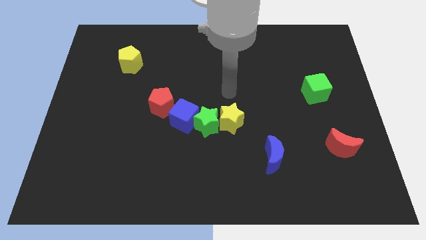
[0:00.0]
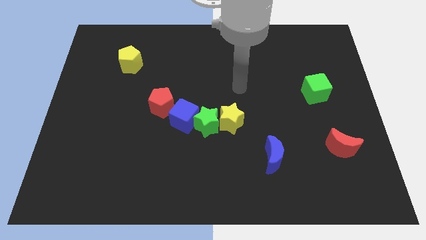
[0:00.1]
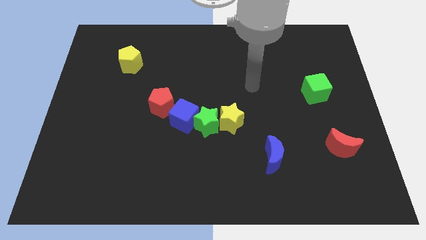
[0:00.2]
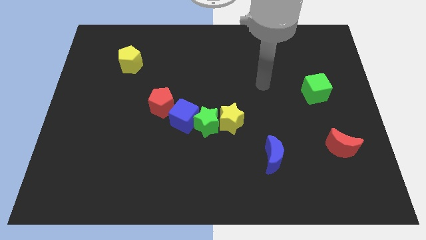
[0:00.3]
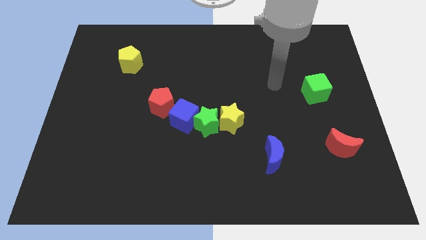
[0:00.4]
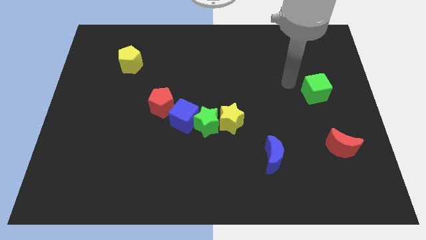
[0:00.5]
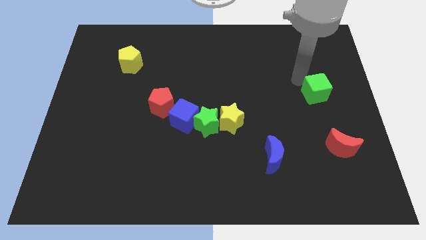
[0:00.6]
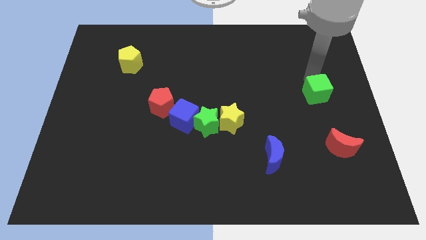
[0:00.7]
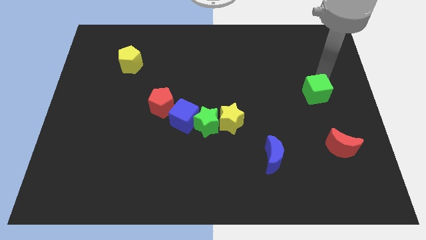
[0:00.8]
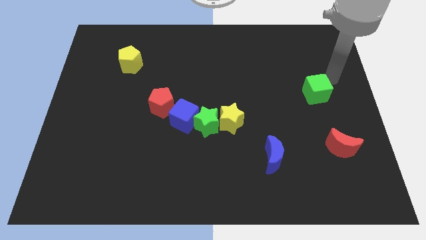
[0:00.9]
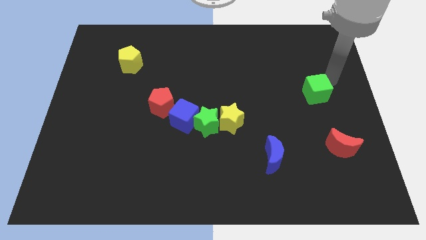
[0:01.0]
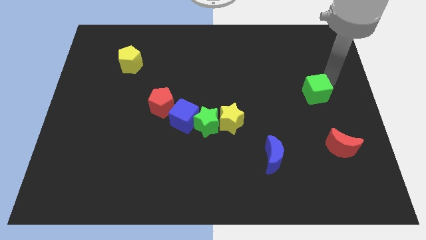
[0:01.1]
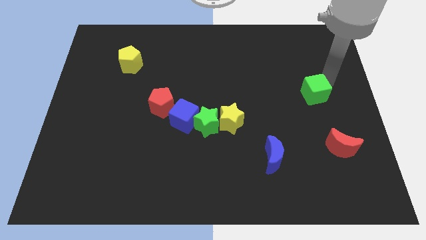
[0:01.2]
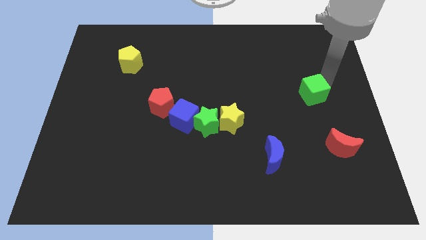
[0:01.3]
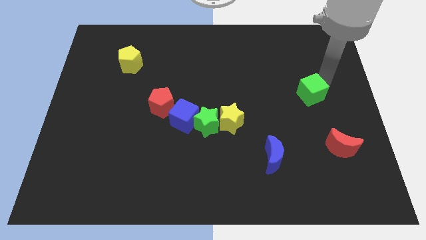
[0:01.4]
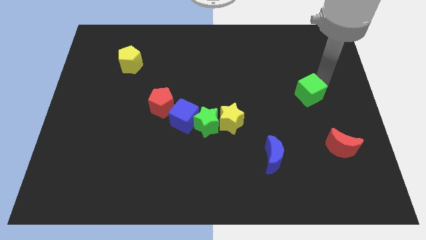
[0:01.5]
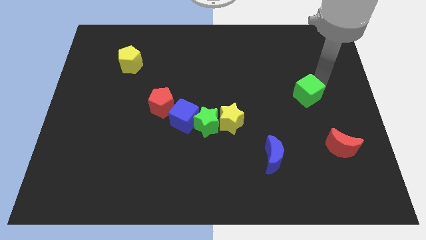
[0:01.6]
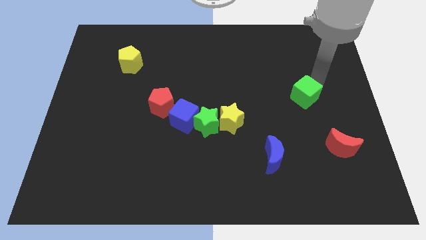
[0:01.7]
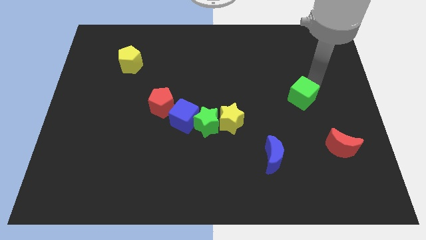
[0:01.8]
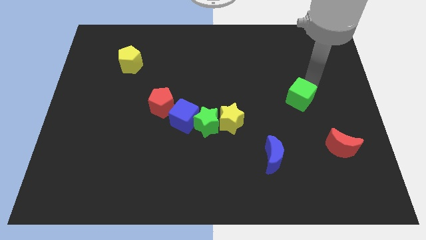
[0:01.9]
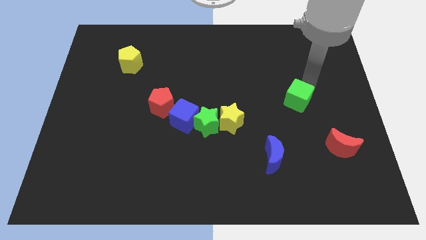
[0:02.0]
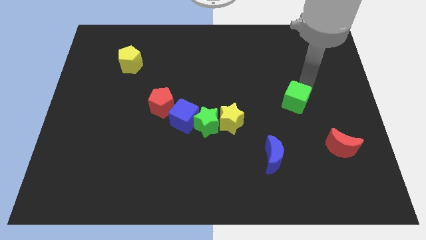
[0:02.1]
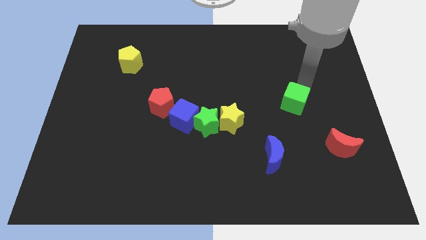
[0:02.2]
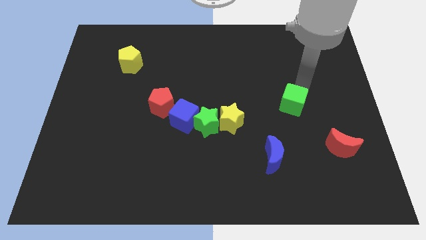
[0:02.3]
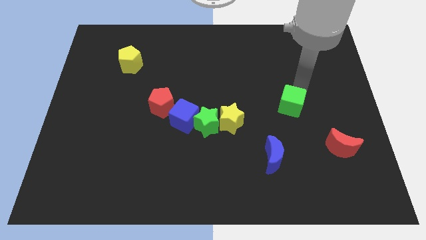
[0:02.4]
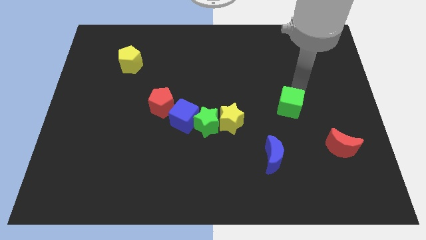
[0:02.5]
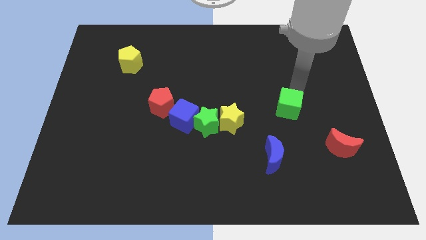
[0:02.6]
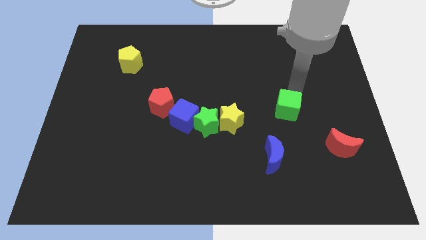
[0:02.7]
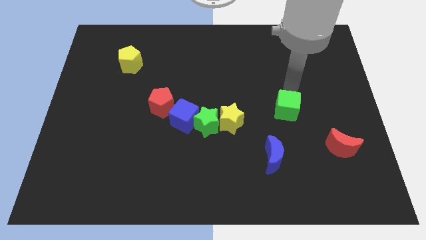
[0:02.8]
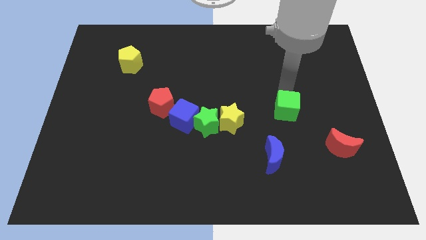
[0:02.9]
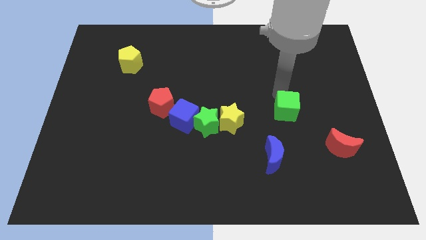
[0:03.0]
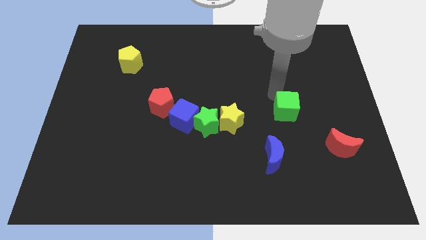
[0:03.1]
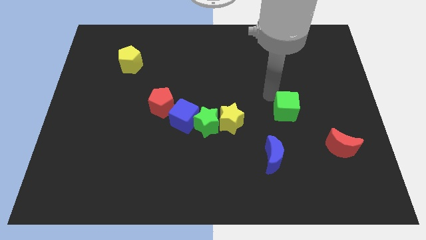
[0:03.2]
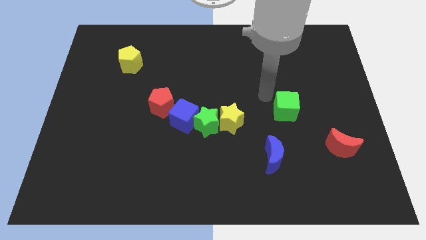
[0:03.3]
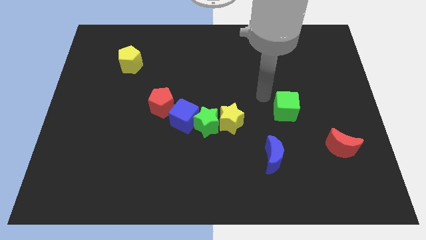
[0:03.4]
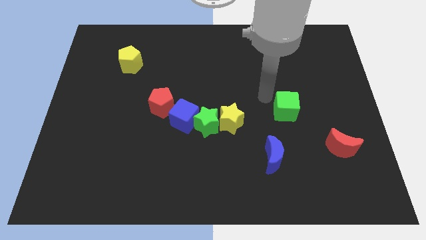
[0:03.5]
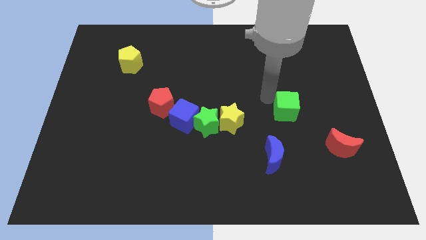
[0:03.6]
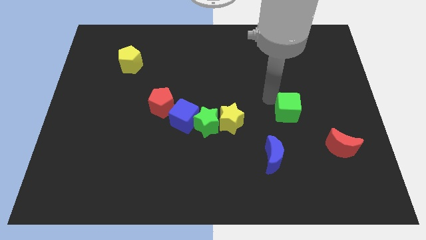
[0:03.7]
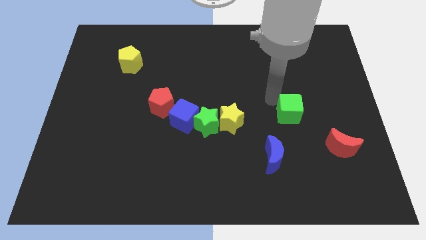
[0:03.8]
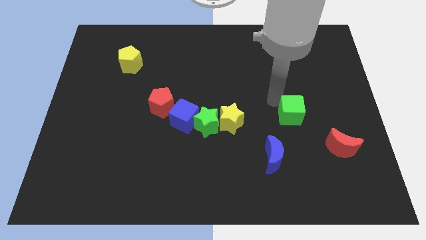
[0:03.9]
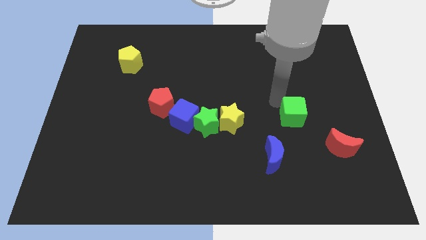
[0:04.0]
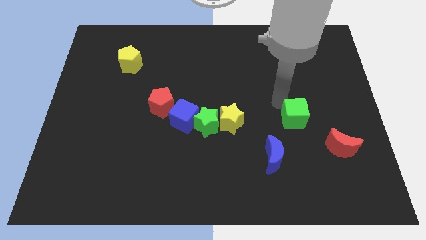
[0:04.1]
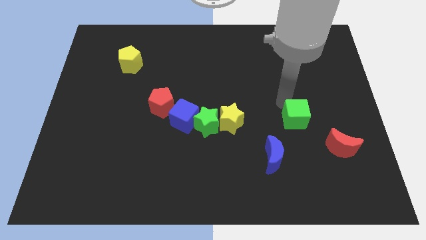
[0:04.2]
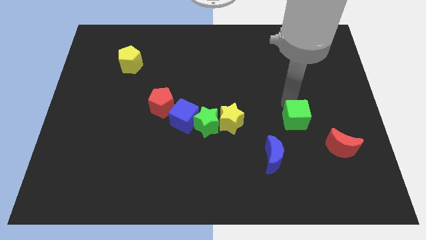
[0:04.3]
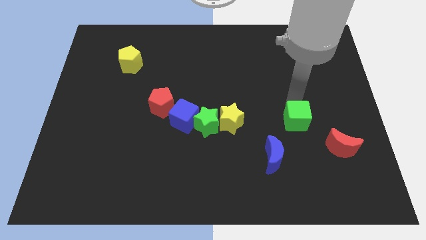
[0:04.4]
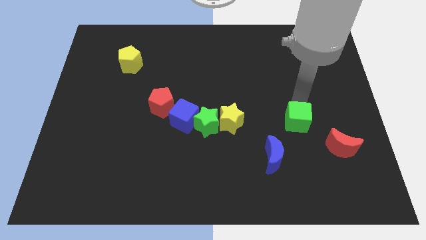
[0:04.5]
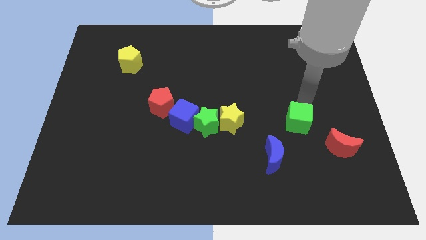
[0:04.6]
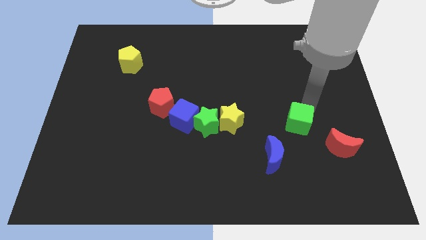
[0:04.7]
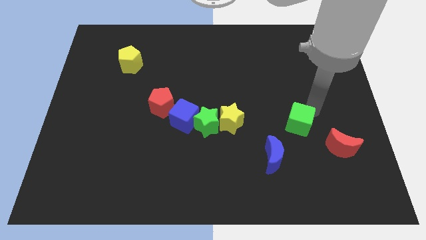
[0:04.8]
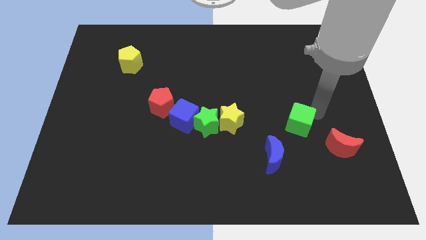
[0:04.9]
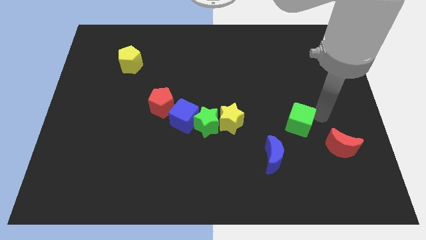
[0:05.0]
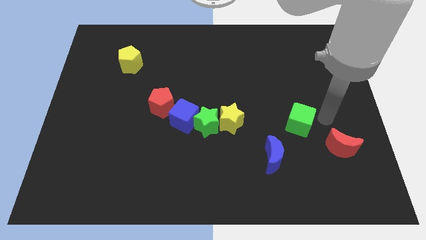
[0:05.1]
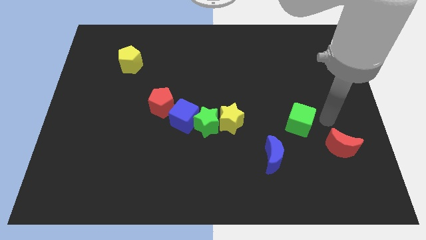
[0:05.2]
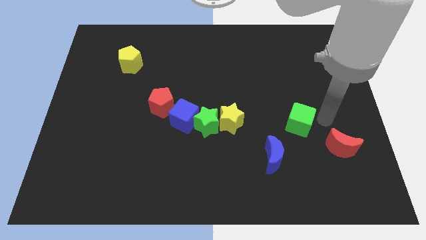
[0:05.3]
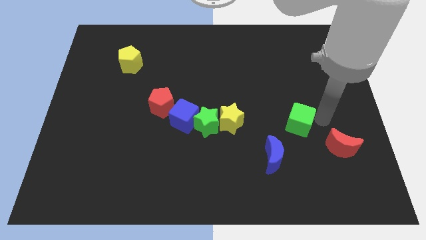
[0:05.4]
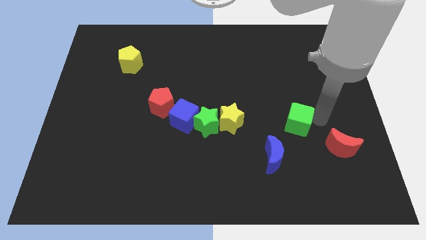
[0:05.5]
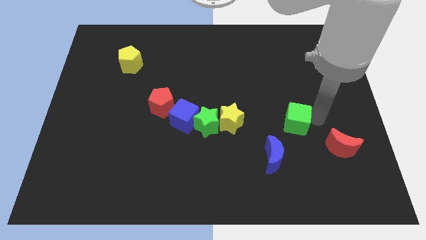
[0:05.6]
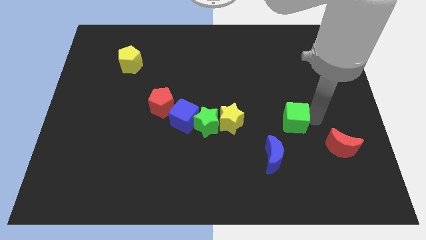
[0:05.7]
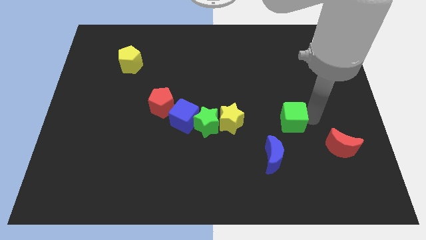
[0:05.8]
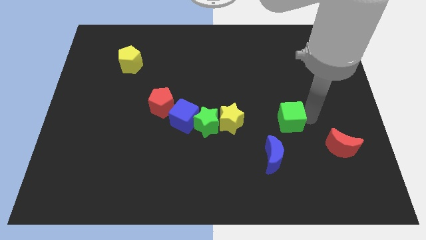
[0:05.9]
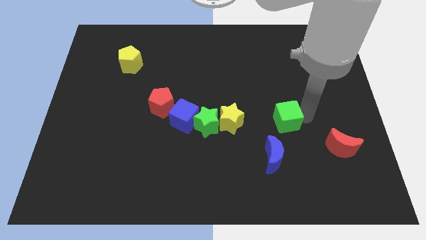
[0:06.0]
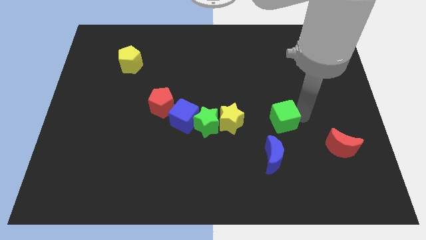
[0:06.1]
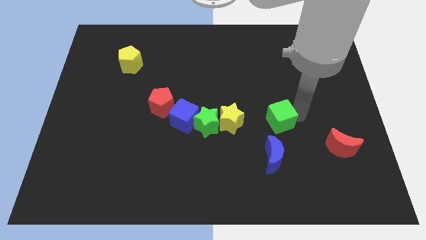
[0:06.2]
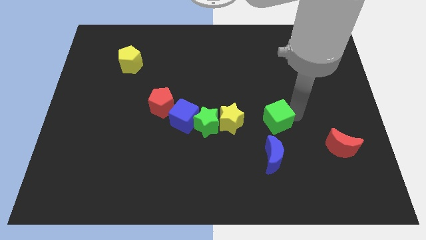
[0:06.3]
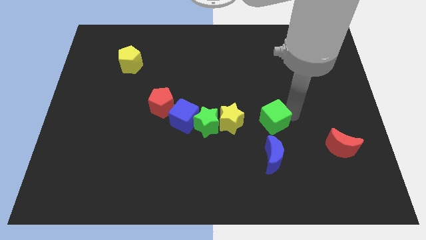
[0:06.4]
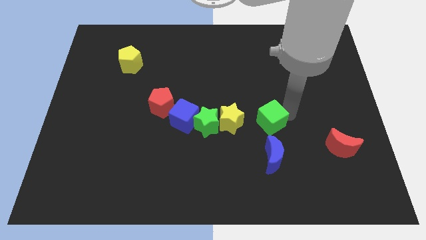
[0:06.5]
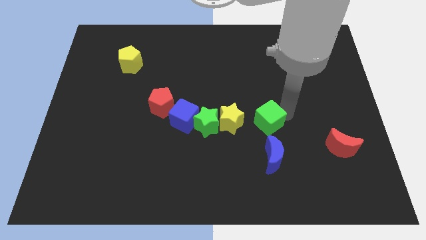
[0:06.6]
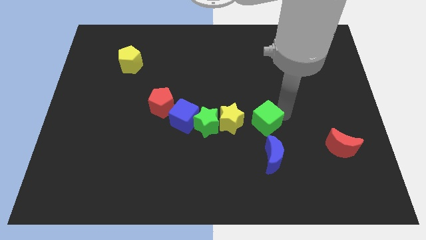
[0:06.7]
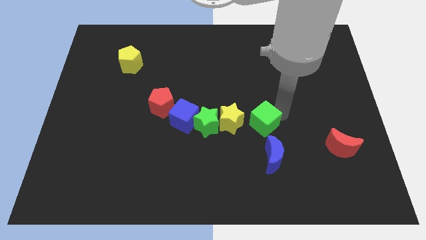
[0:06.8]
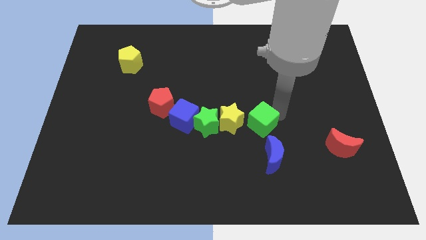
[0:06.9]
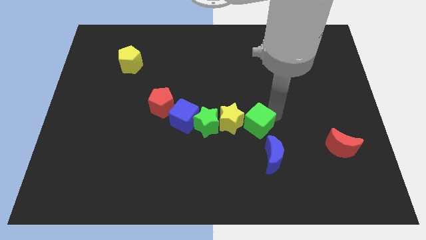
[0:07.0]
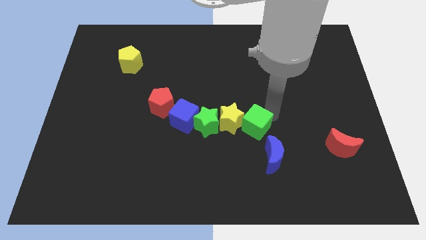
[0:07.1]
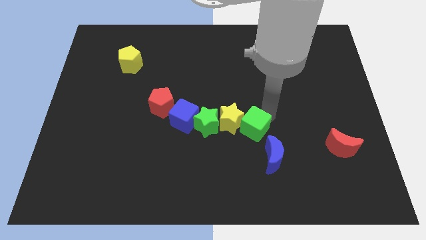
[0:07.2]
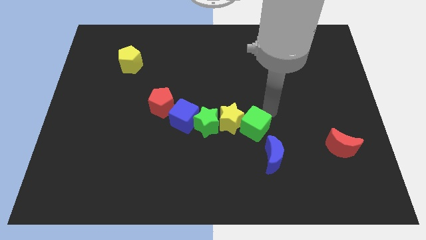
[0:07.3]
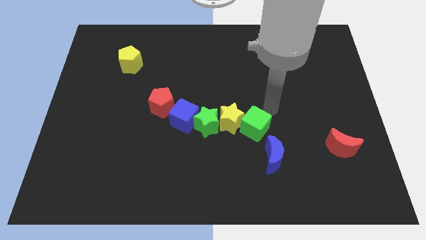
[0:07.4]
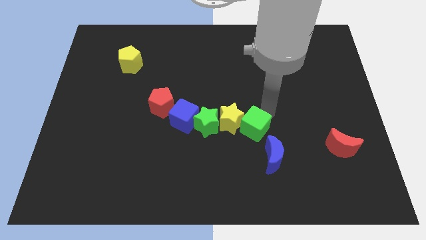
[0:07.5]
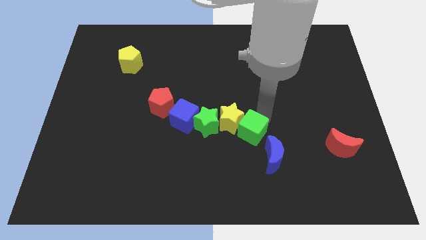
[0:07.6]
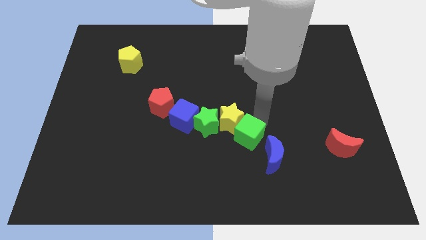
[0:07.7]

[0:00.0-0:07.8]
move the green cube down and to the left

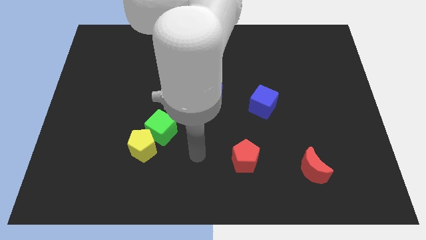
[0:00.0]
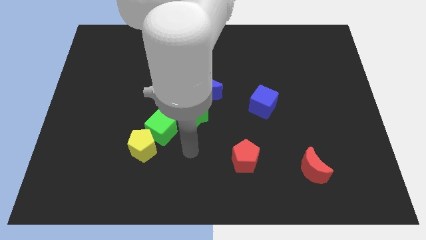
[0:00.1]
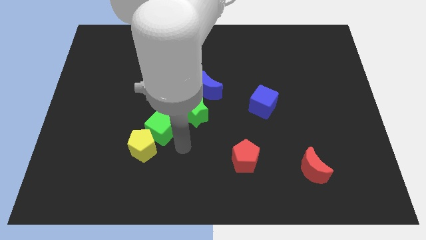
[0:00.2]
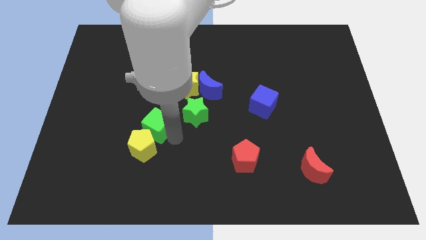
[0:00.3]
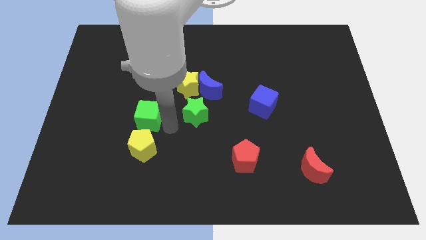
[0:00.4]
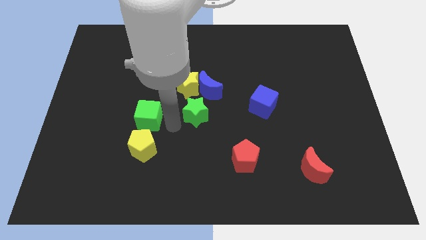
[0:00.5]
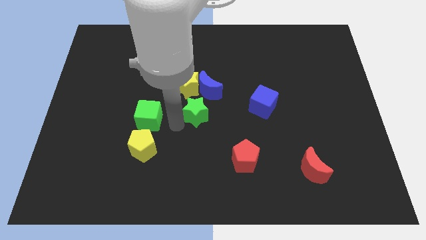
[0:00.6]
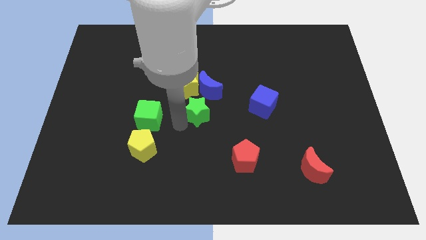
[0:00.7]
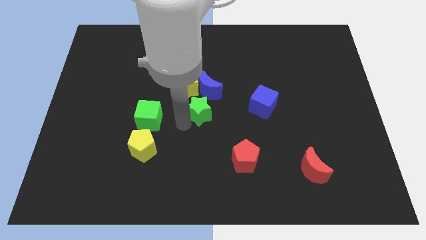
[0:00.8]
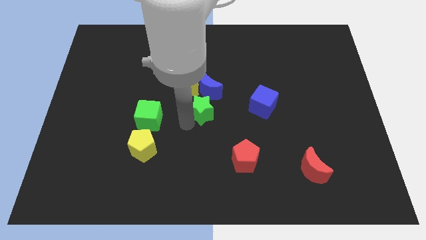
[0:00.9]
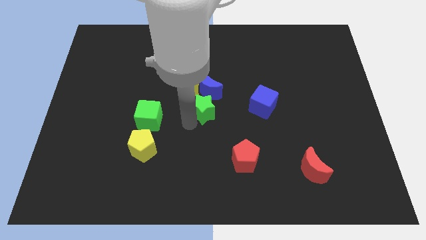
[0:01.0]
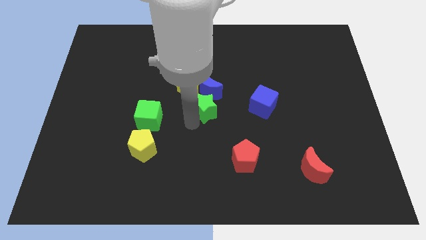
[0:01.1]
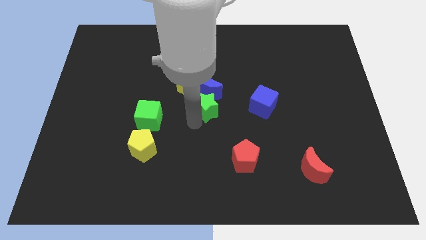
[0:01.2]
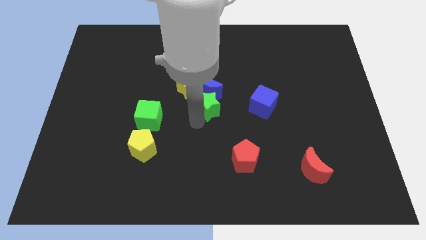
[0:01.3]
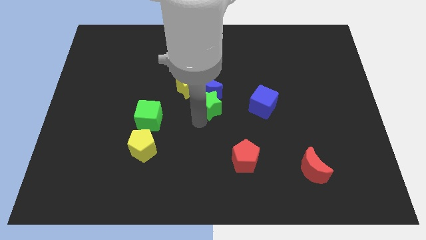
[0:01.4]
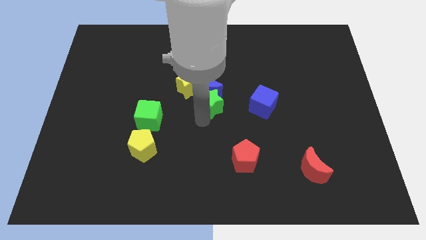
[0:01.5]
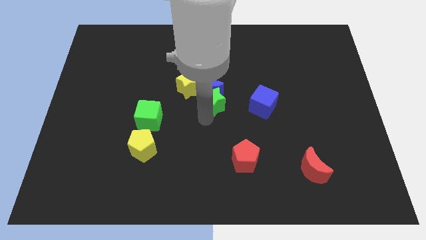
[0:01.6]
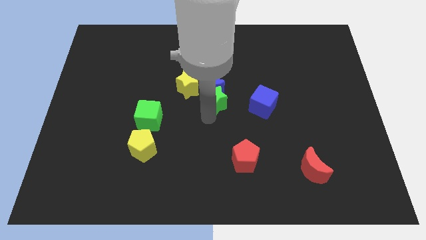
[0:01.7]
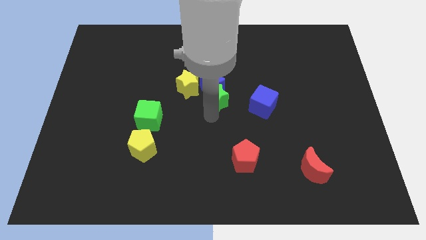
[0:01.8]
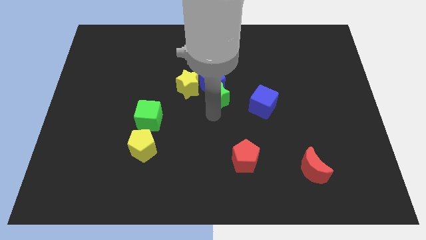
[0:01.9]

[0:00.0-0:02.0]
slightly move the green star upwards and then right
